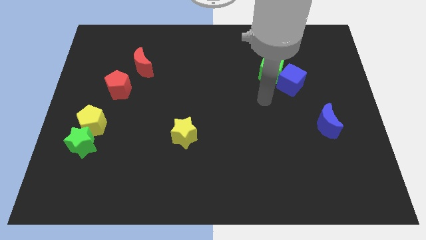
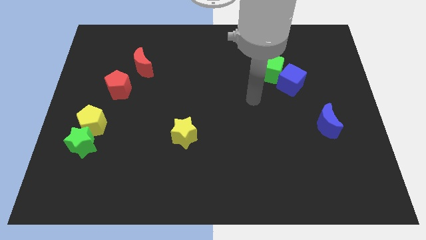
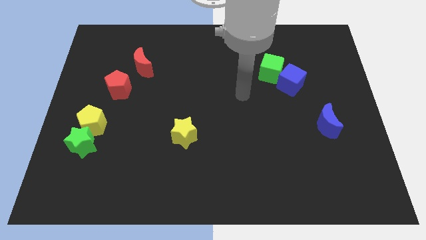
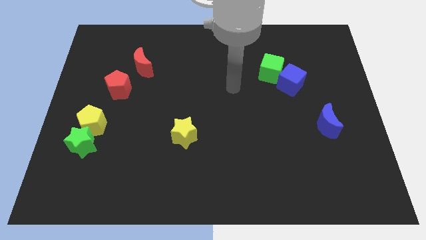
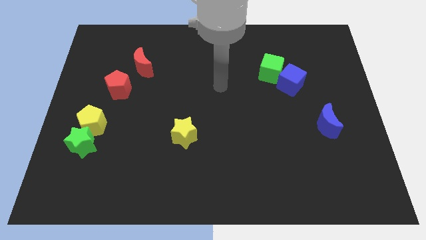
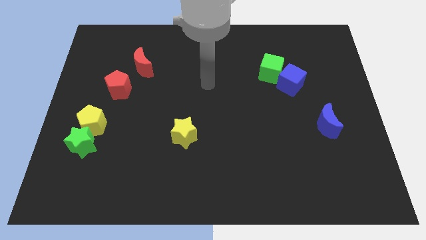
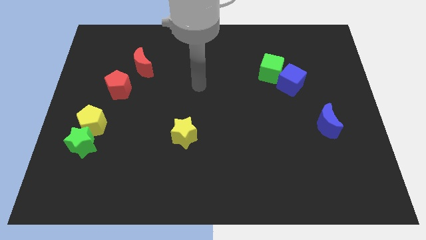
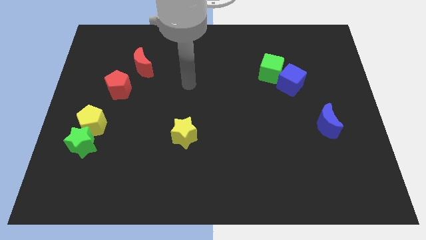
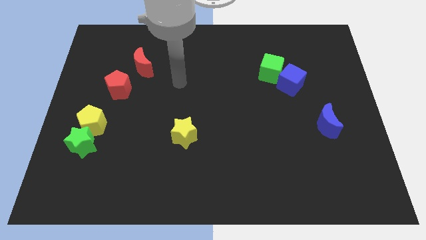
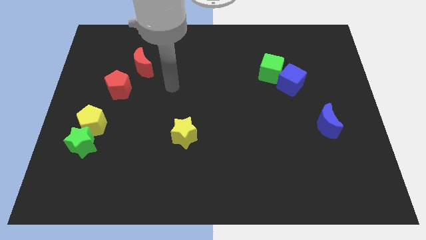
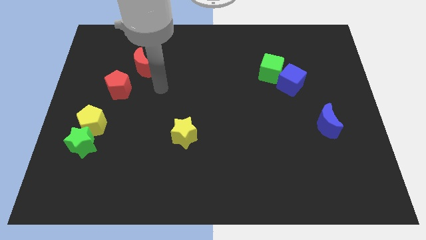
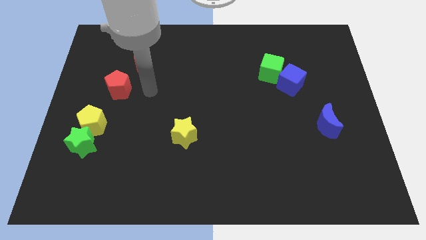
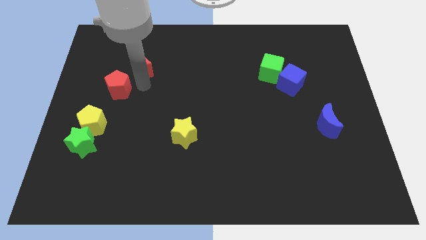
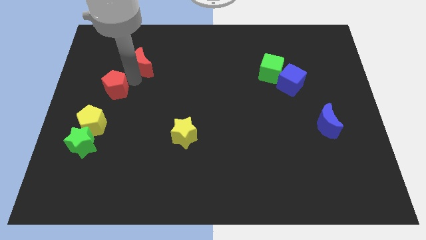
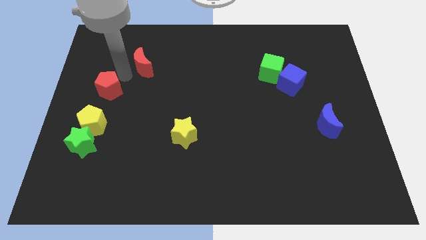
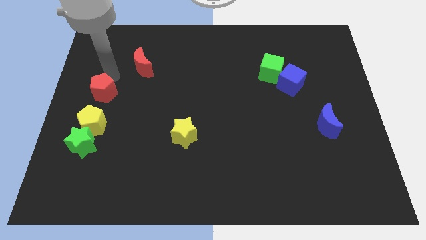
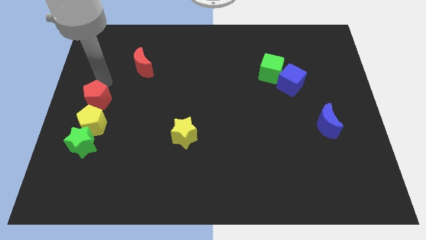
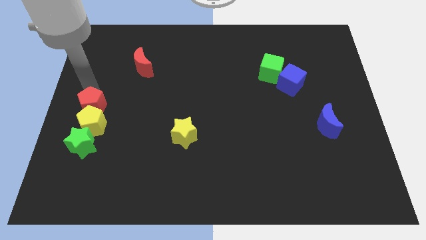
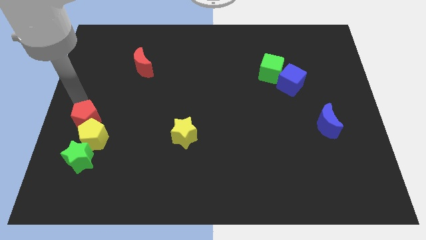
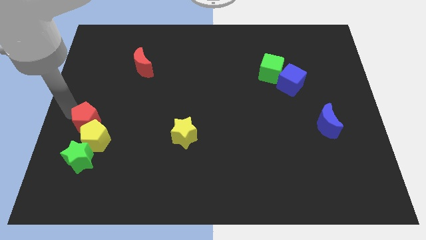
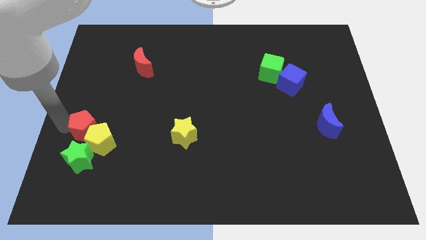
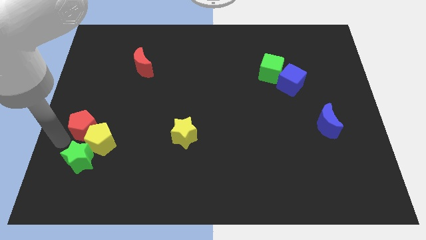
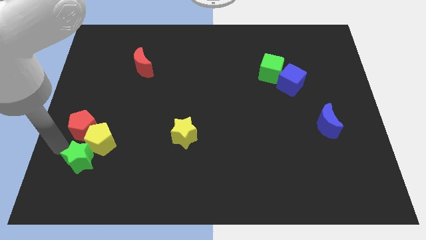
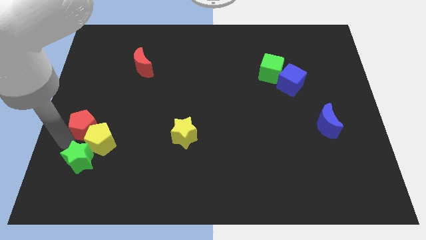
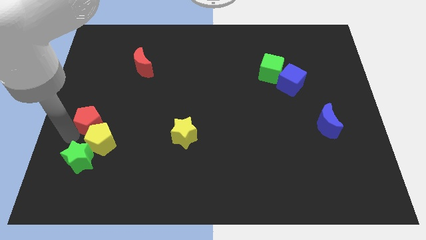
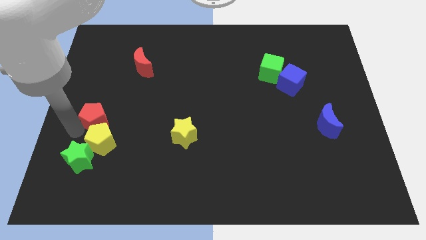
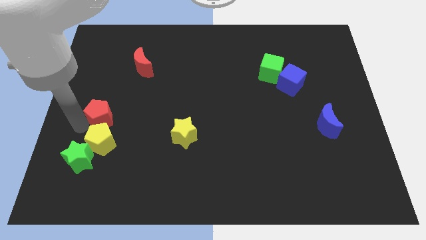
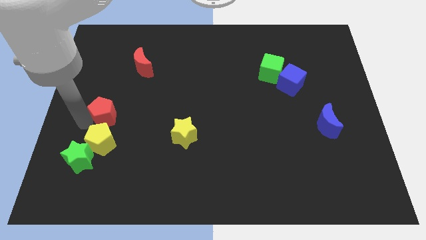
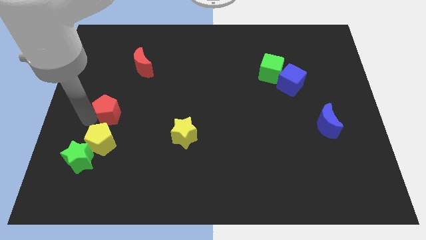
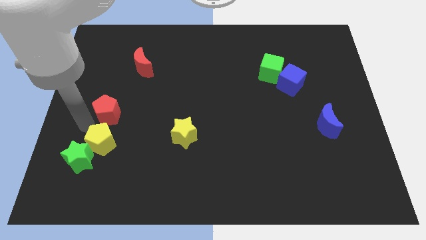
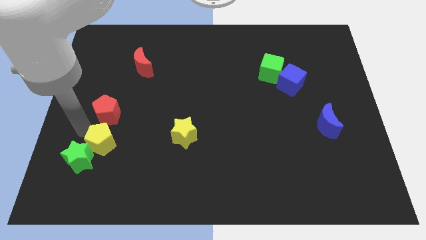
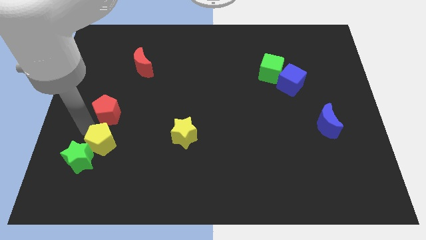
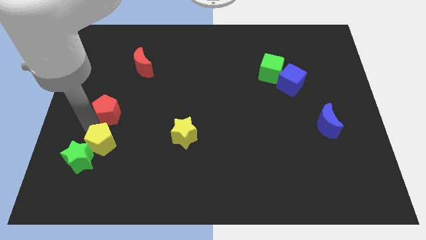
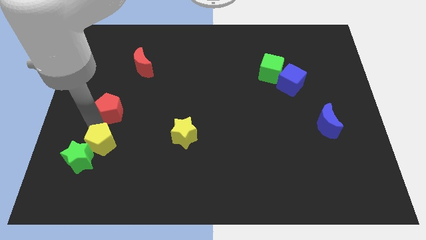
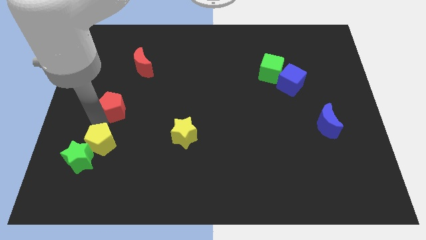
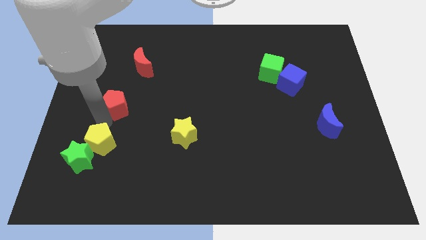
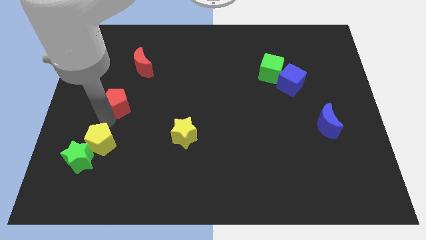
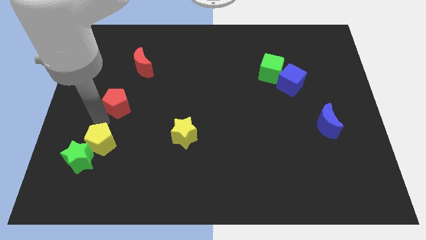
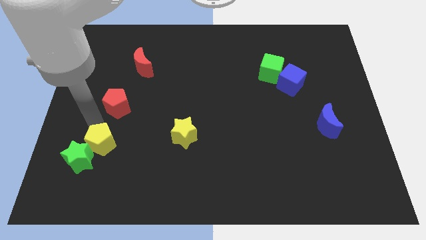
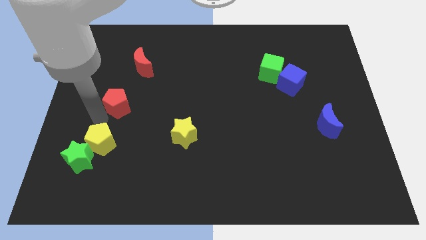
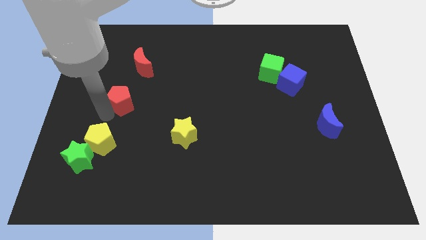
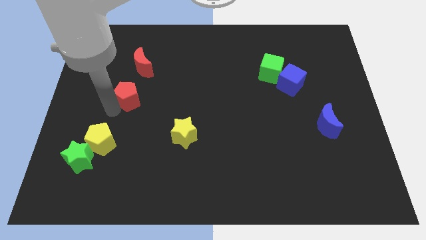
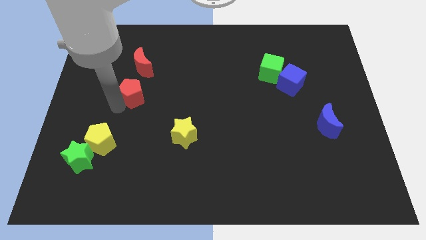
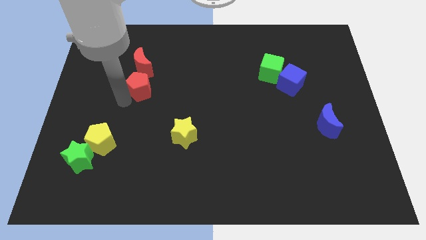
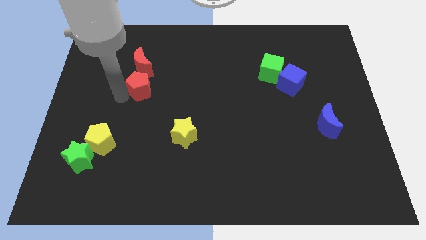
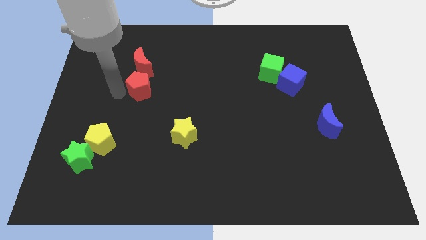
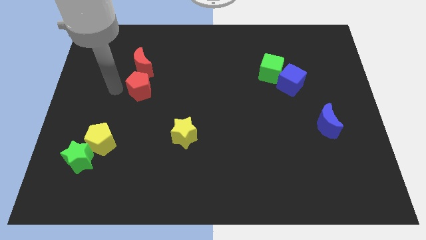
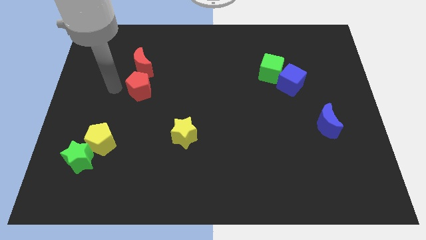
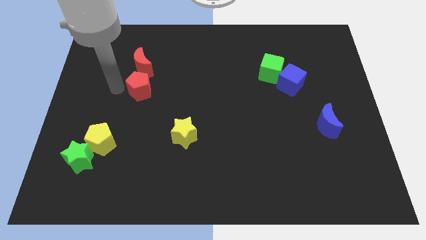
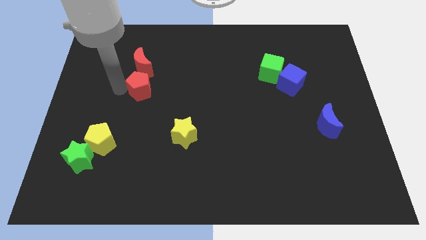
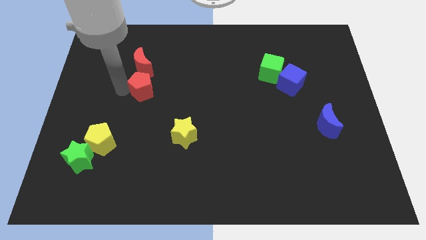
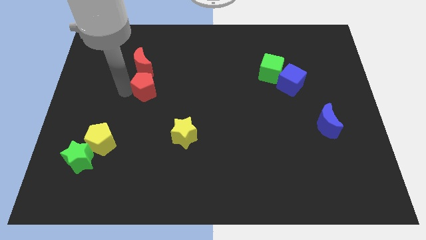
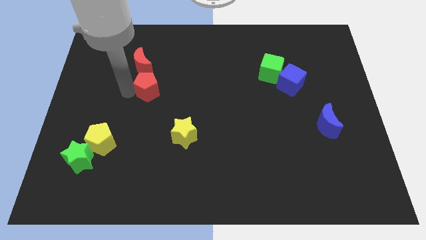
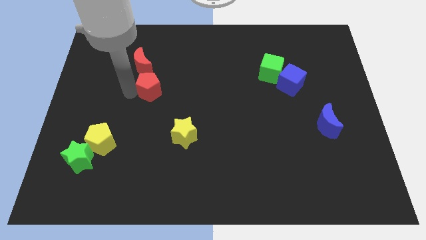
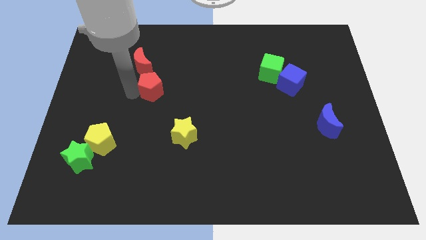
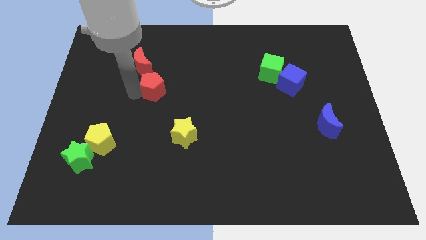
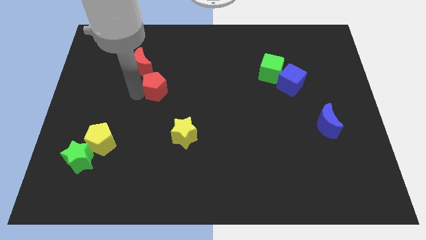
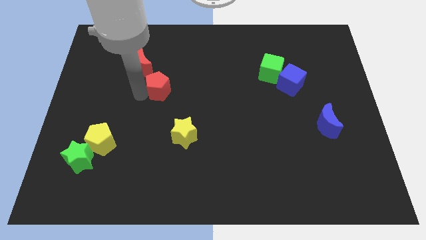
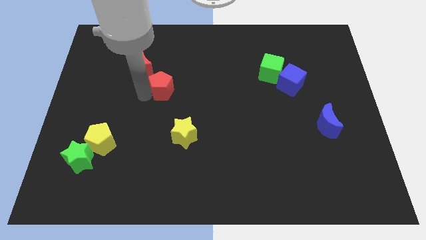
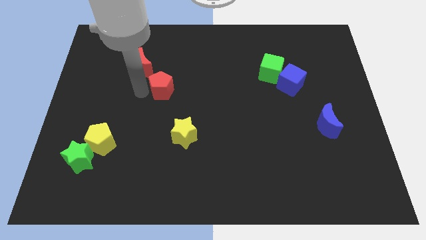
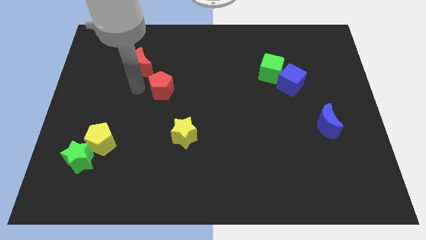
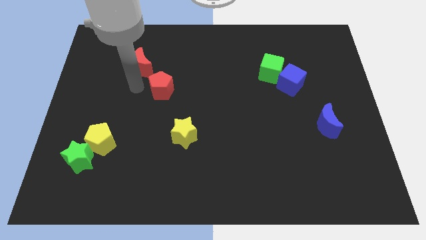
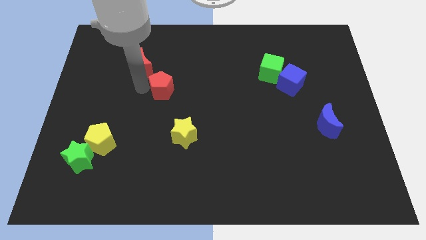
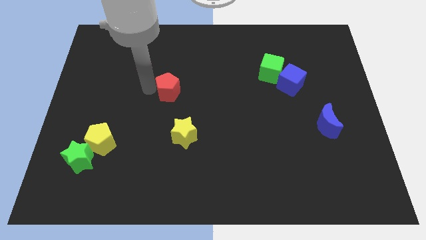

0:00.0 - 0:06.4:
slide the red pentagon to the center of the board

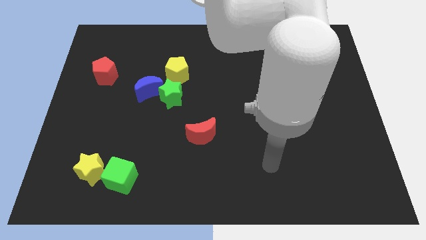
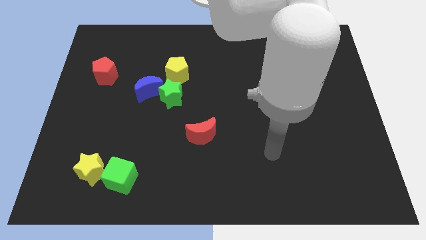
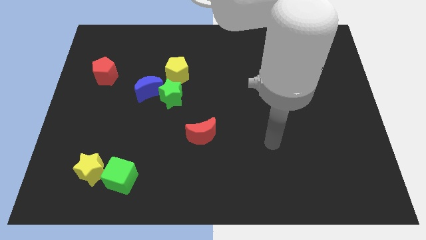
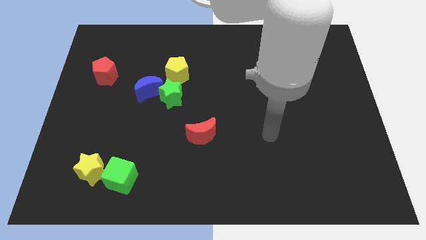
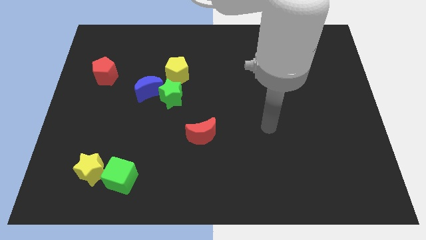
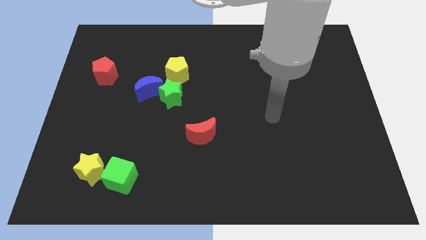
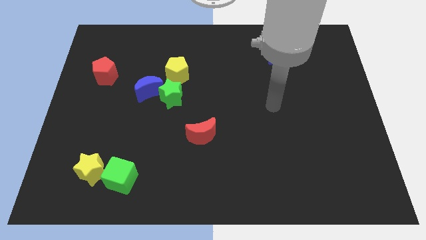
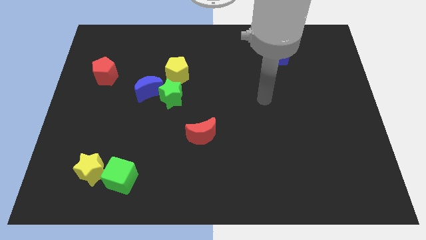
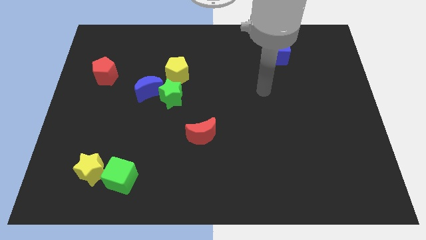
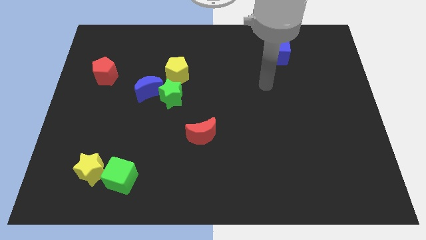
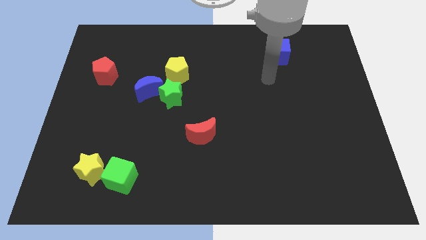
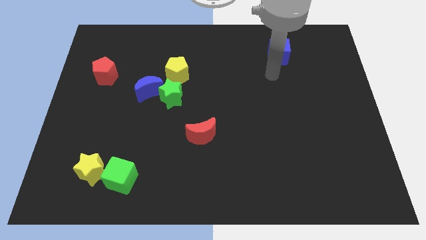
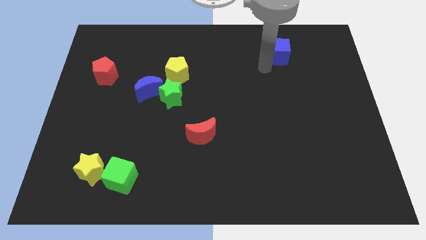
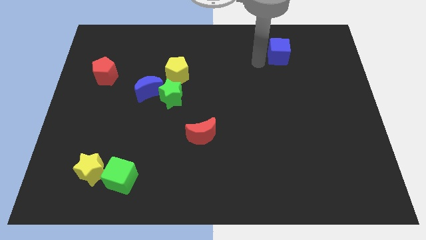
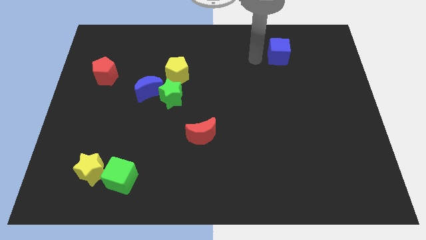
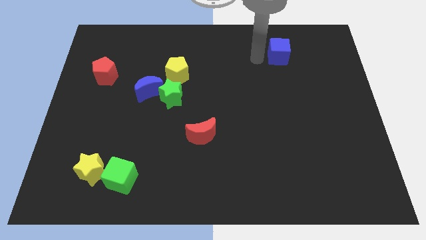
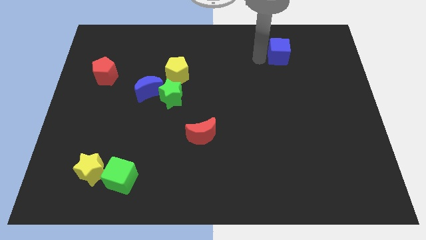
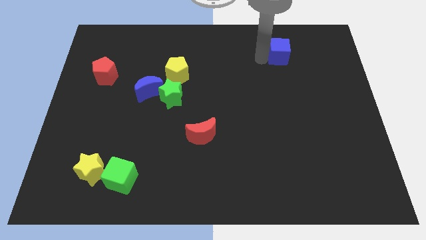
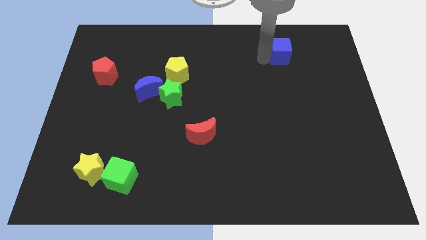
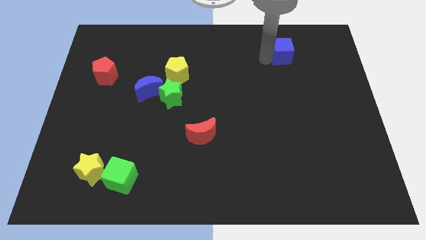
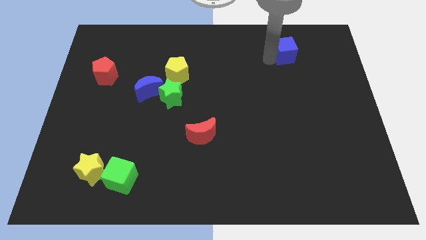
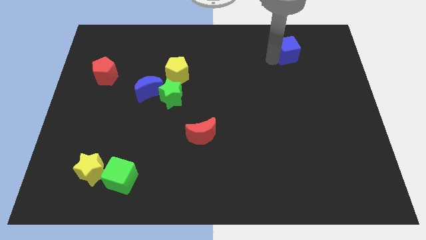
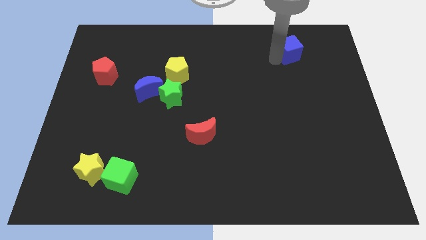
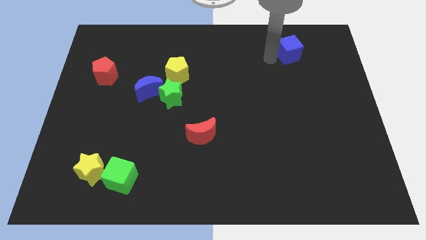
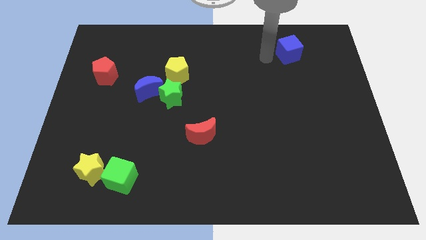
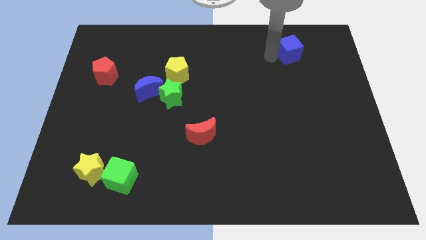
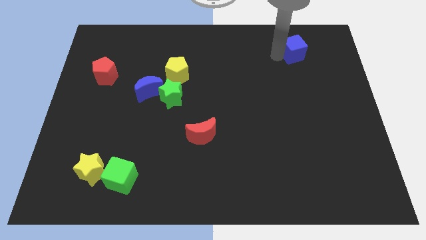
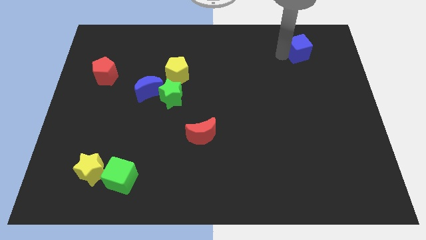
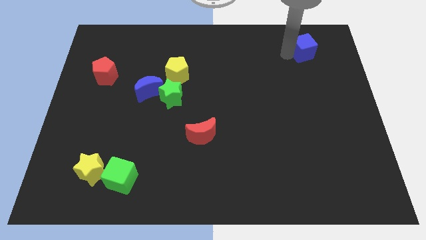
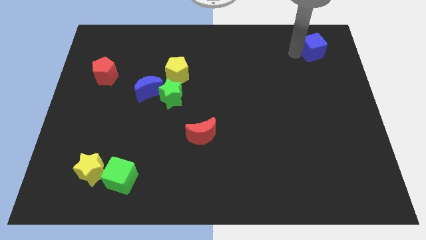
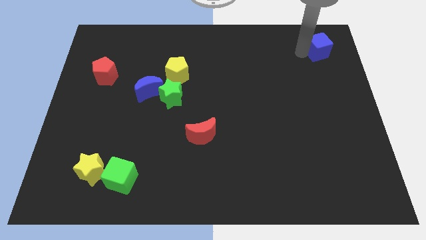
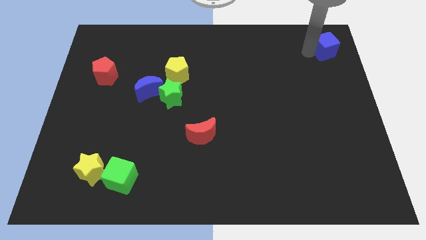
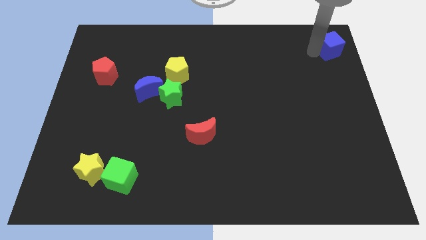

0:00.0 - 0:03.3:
push the blue cube to the top right corner
